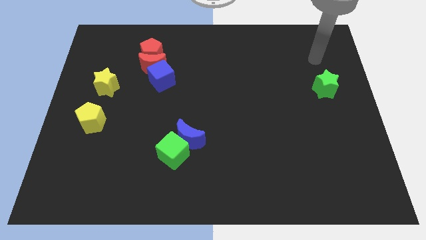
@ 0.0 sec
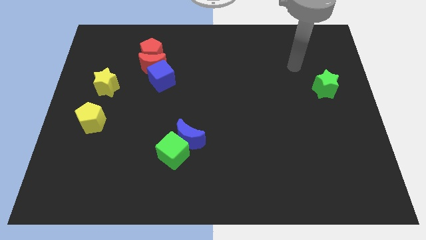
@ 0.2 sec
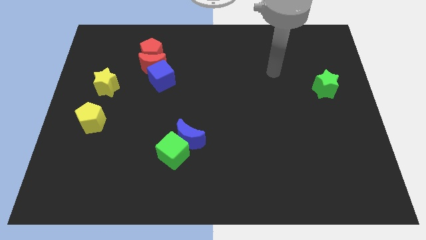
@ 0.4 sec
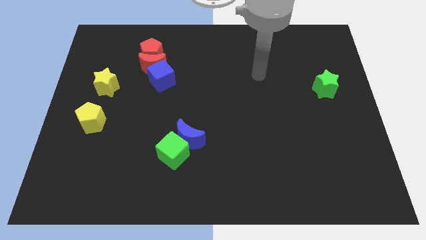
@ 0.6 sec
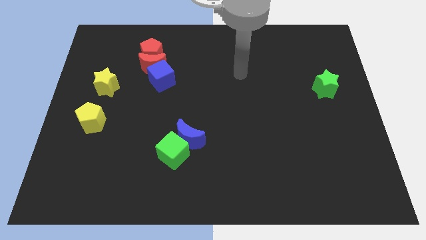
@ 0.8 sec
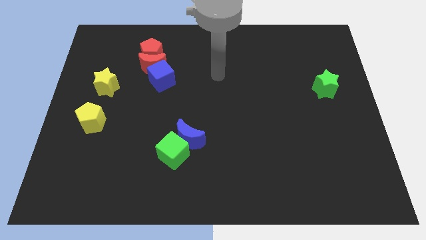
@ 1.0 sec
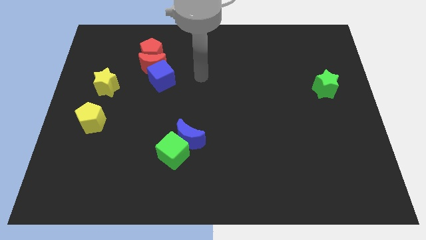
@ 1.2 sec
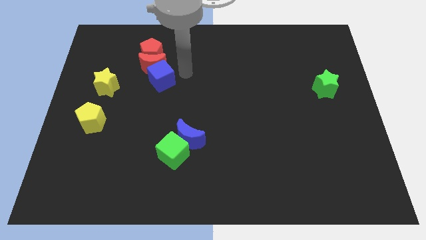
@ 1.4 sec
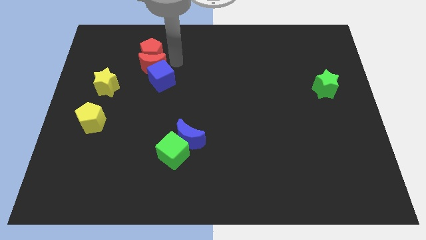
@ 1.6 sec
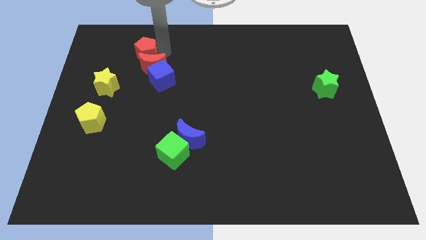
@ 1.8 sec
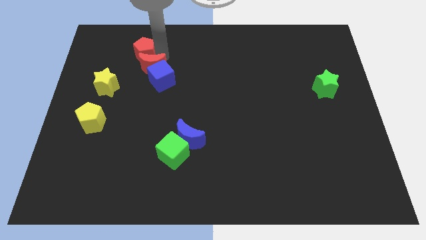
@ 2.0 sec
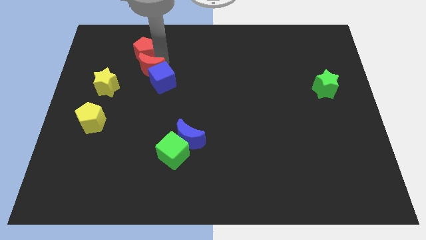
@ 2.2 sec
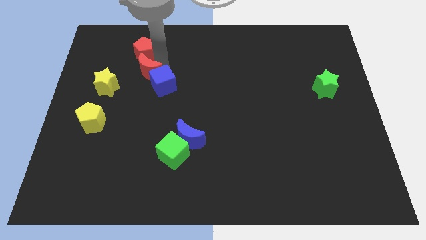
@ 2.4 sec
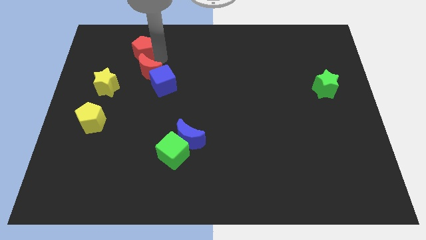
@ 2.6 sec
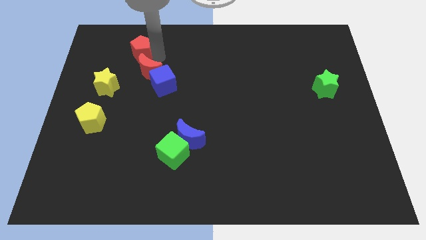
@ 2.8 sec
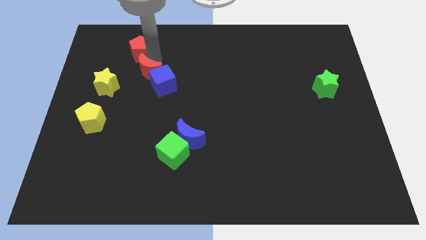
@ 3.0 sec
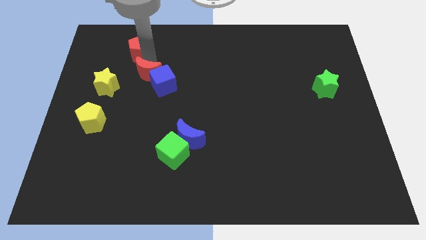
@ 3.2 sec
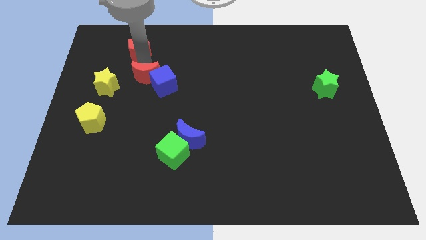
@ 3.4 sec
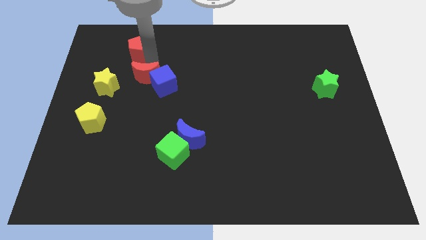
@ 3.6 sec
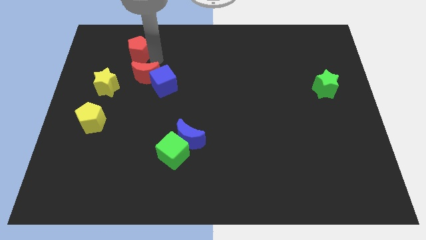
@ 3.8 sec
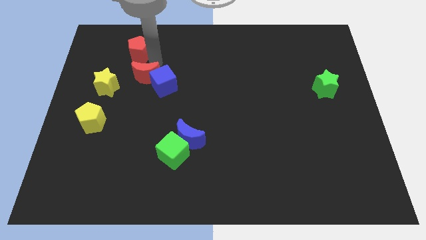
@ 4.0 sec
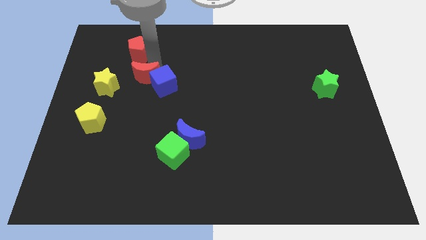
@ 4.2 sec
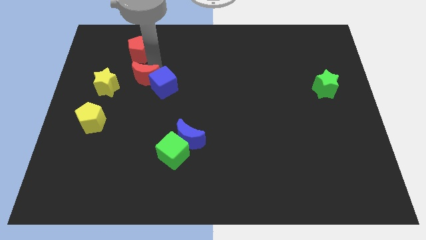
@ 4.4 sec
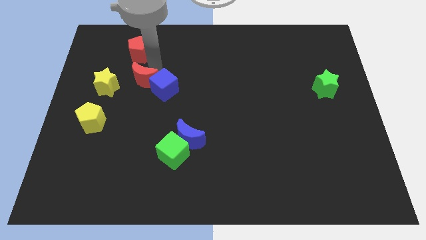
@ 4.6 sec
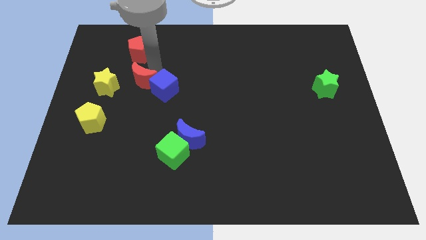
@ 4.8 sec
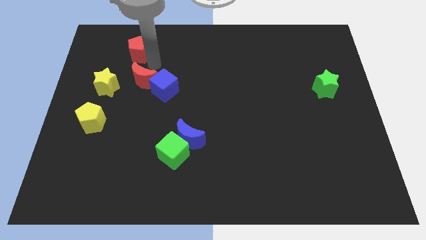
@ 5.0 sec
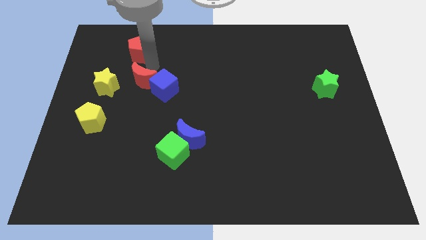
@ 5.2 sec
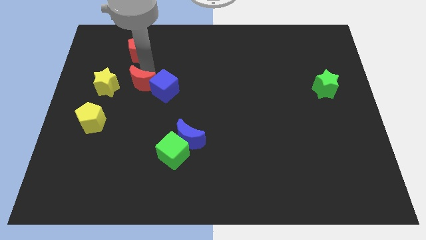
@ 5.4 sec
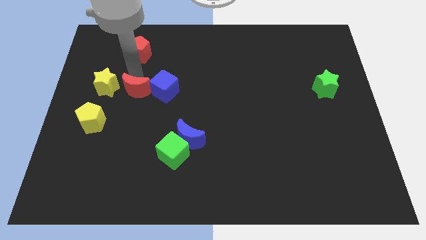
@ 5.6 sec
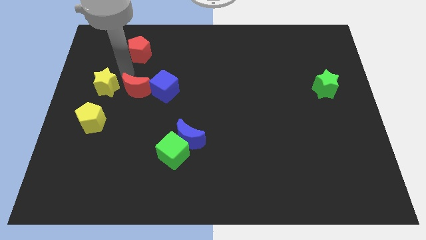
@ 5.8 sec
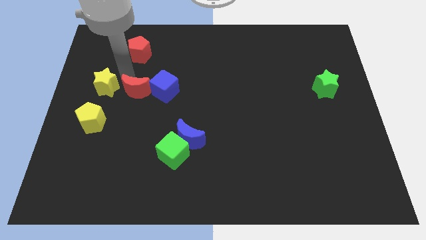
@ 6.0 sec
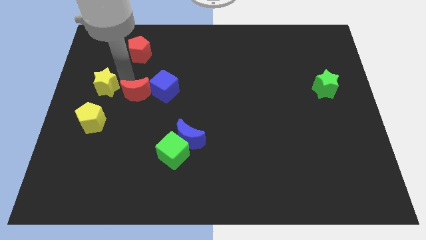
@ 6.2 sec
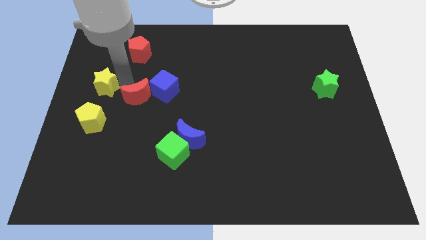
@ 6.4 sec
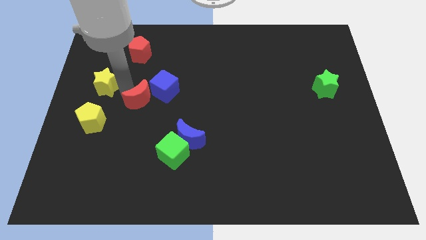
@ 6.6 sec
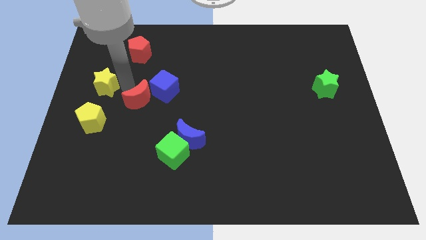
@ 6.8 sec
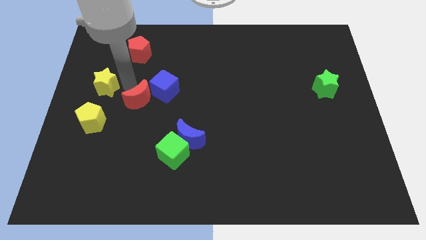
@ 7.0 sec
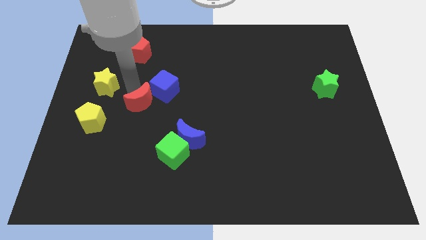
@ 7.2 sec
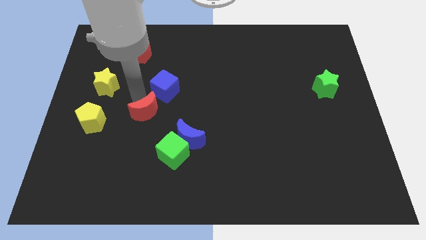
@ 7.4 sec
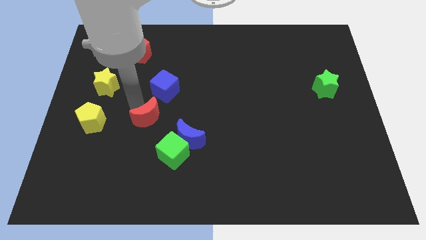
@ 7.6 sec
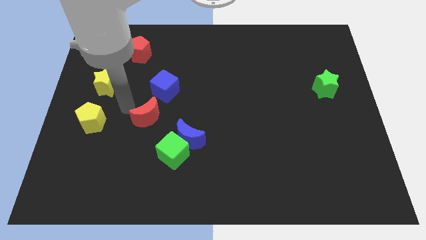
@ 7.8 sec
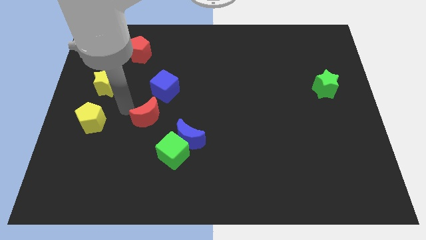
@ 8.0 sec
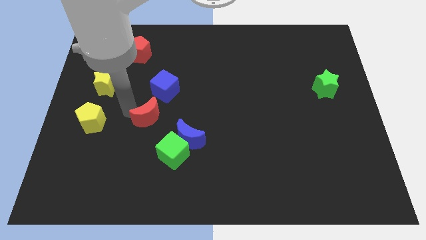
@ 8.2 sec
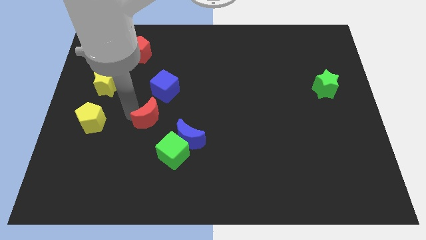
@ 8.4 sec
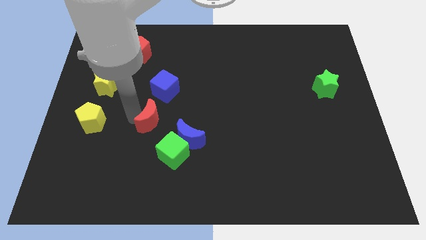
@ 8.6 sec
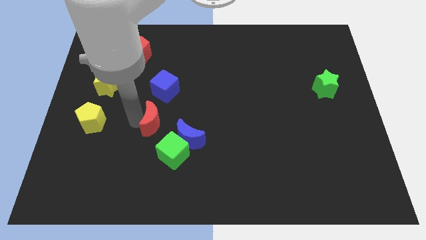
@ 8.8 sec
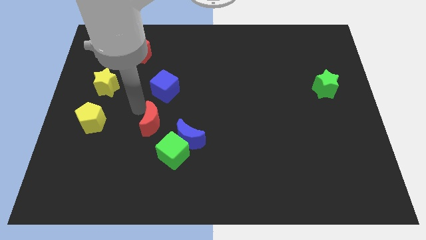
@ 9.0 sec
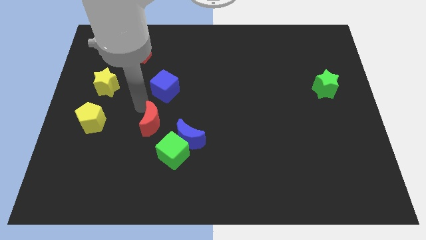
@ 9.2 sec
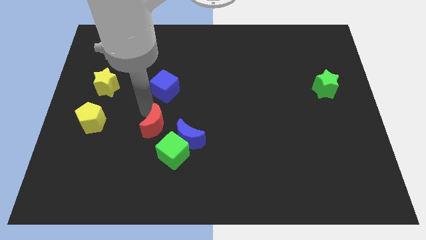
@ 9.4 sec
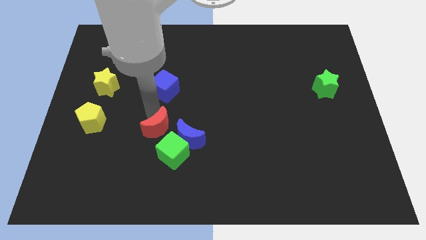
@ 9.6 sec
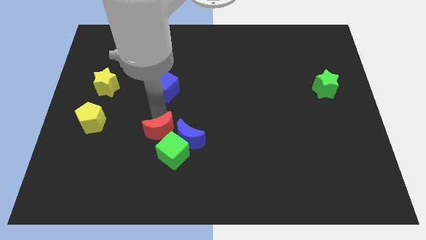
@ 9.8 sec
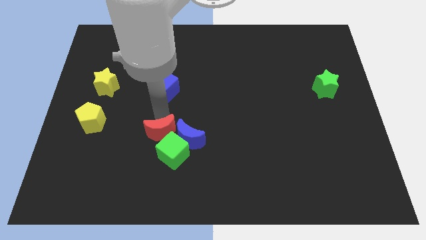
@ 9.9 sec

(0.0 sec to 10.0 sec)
put the red moon towards the green cube

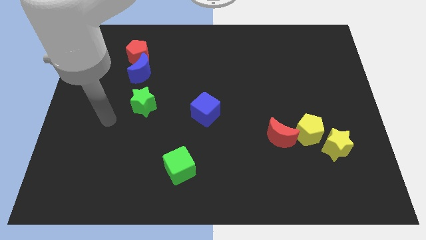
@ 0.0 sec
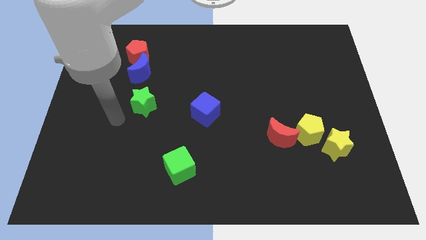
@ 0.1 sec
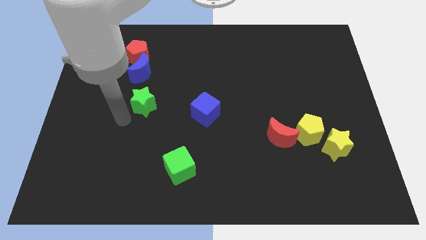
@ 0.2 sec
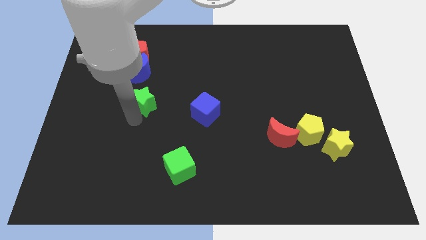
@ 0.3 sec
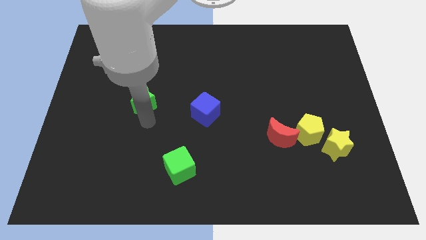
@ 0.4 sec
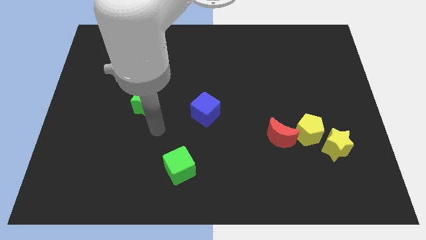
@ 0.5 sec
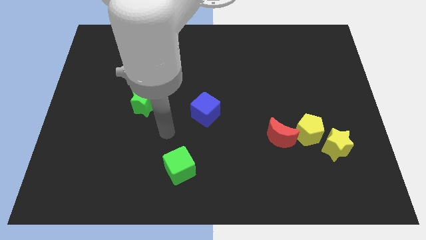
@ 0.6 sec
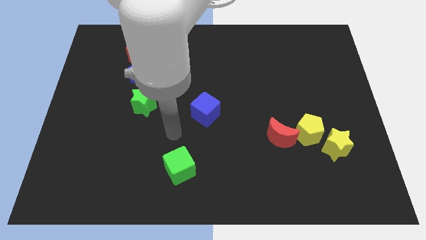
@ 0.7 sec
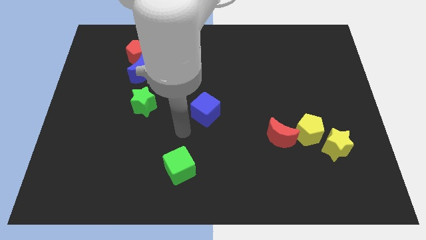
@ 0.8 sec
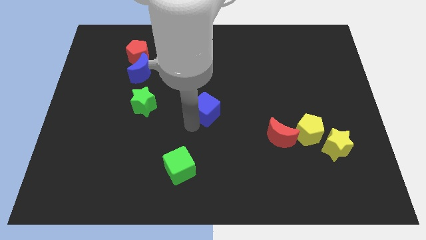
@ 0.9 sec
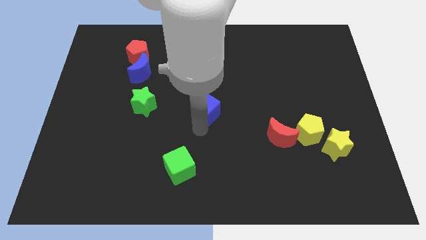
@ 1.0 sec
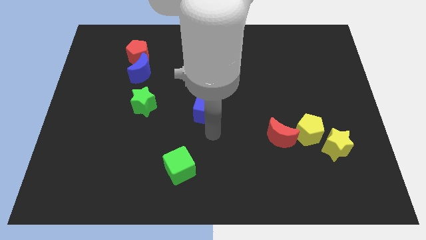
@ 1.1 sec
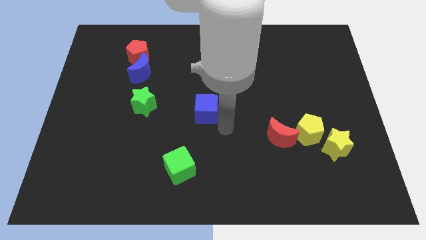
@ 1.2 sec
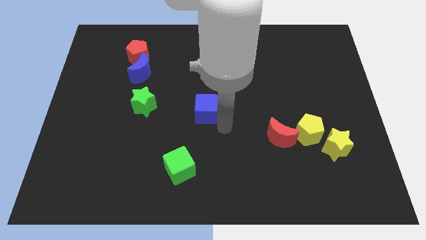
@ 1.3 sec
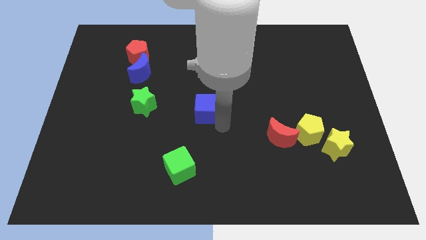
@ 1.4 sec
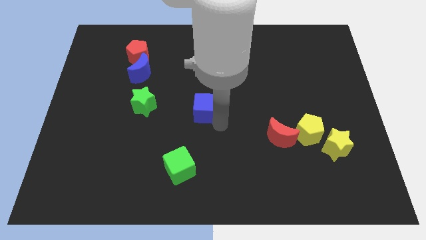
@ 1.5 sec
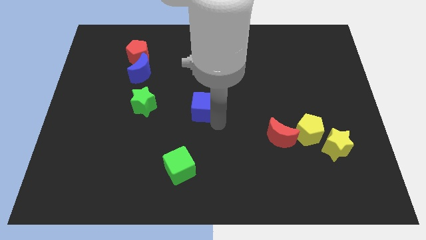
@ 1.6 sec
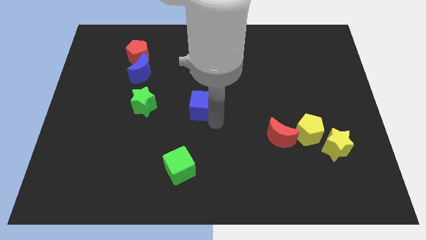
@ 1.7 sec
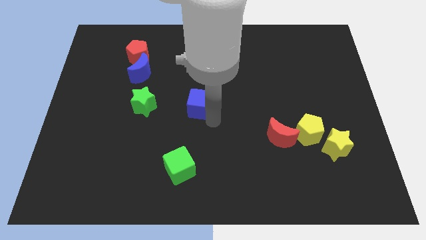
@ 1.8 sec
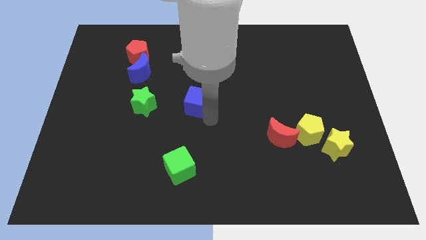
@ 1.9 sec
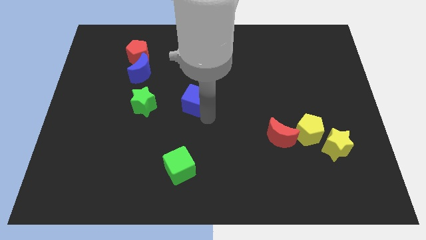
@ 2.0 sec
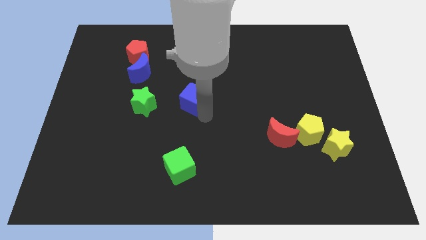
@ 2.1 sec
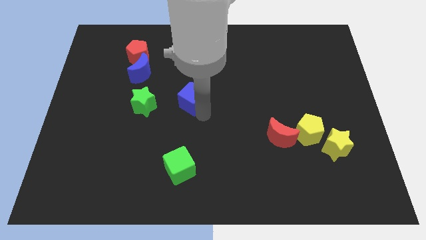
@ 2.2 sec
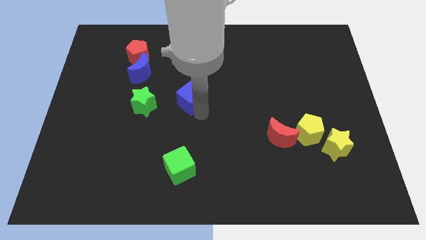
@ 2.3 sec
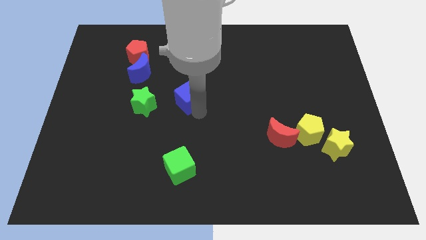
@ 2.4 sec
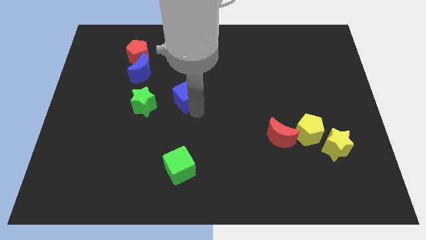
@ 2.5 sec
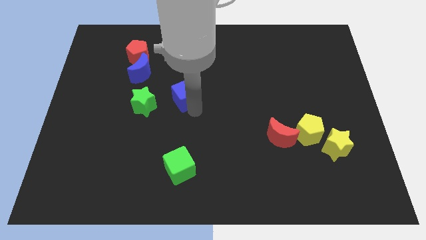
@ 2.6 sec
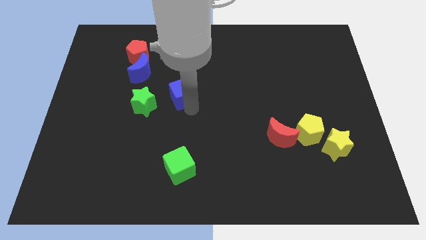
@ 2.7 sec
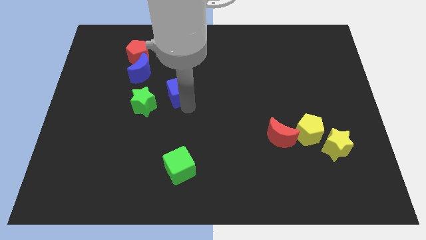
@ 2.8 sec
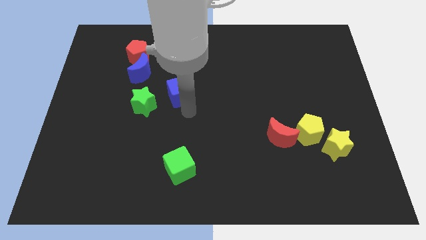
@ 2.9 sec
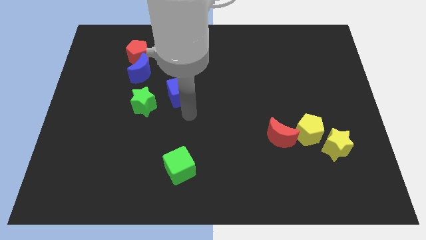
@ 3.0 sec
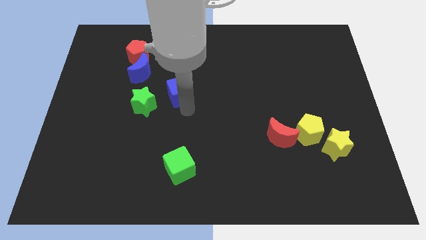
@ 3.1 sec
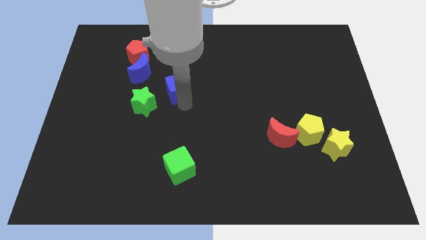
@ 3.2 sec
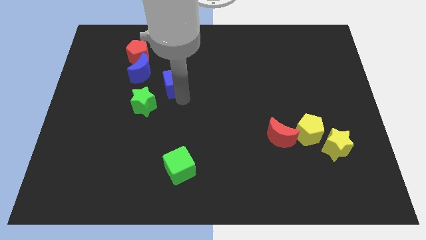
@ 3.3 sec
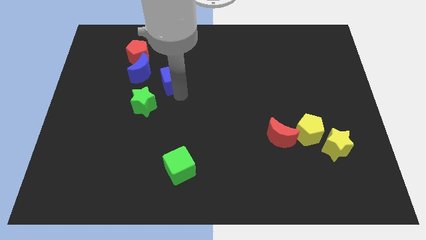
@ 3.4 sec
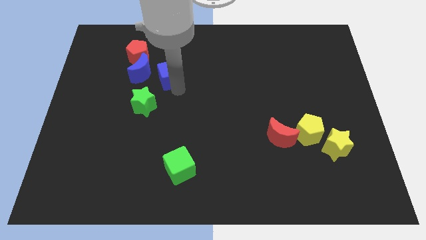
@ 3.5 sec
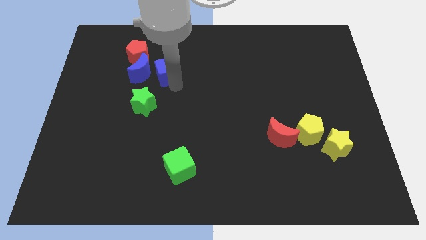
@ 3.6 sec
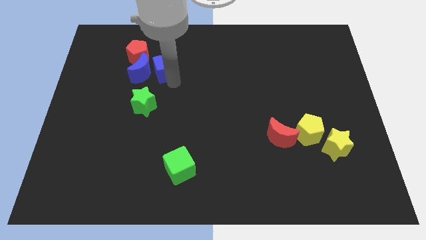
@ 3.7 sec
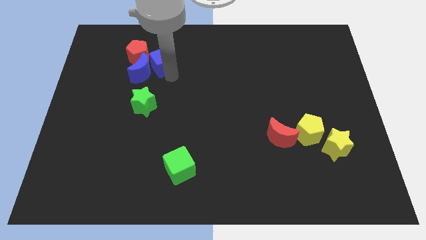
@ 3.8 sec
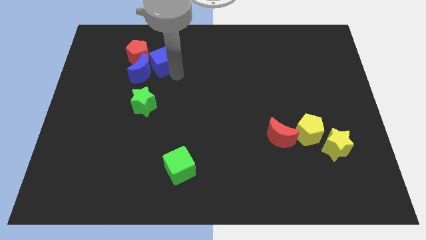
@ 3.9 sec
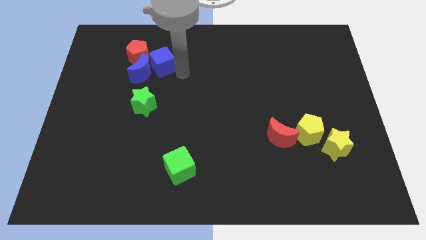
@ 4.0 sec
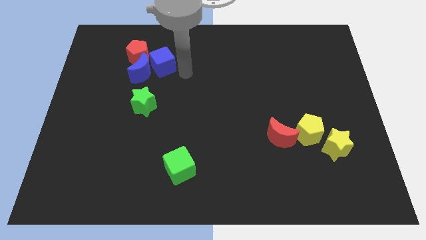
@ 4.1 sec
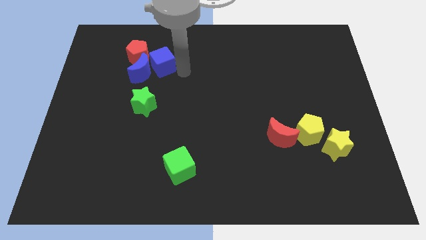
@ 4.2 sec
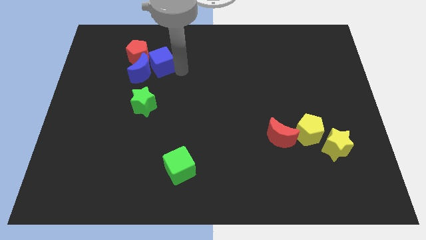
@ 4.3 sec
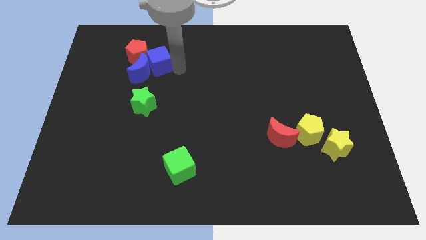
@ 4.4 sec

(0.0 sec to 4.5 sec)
slide the blue cube towards the red pentagon
